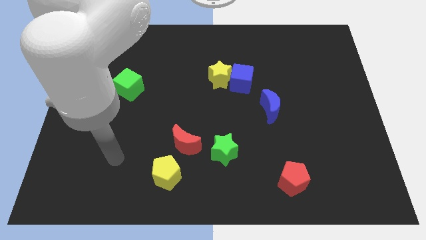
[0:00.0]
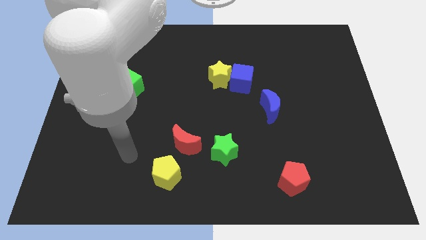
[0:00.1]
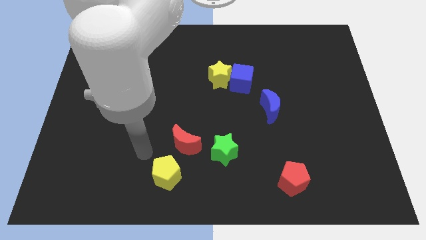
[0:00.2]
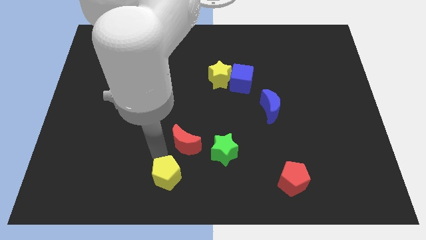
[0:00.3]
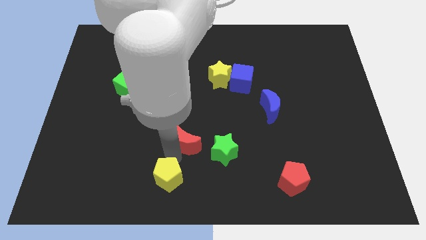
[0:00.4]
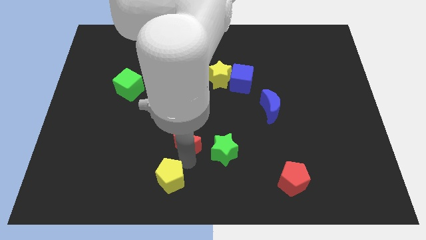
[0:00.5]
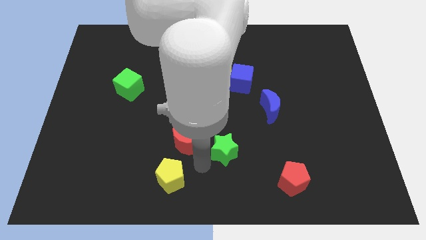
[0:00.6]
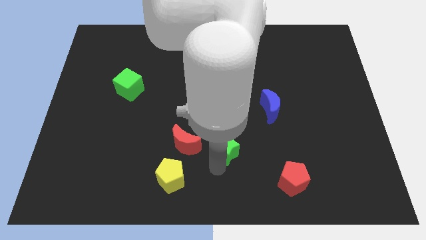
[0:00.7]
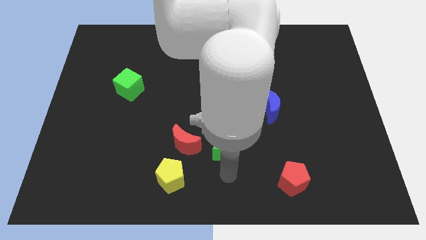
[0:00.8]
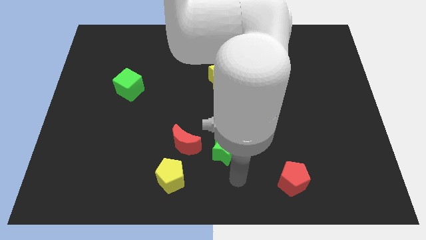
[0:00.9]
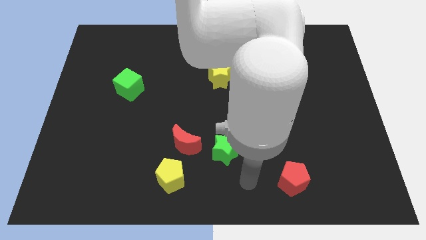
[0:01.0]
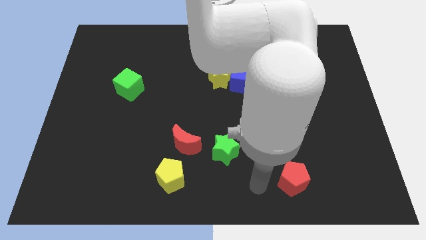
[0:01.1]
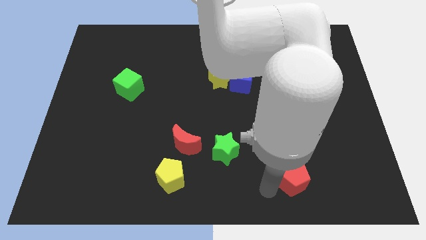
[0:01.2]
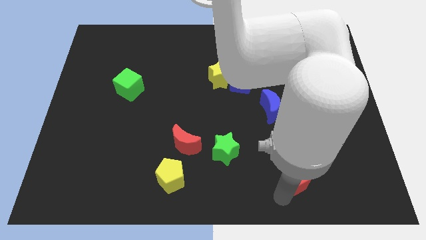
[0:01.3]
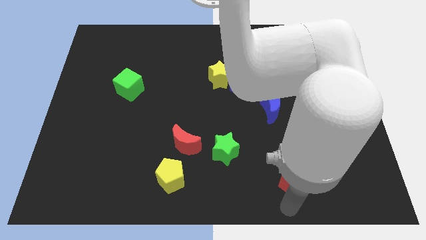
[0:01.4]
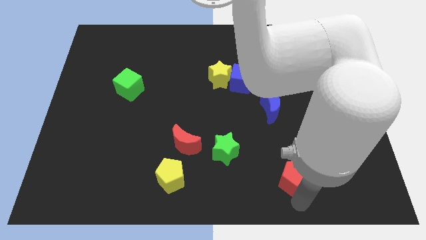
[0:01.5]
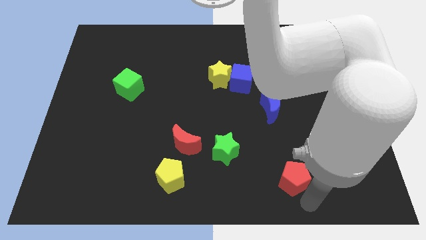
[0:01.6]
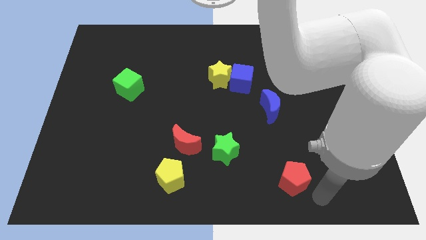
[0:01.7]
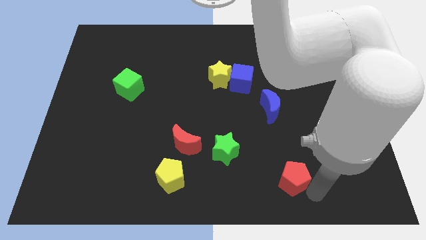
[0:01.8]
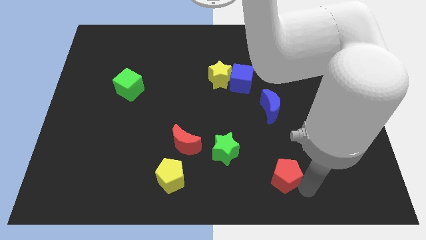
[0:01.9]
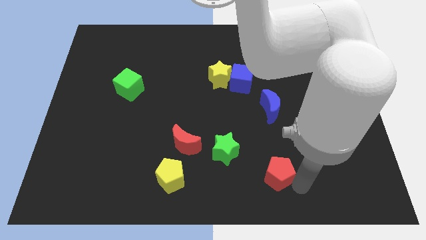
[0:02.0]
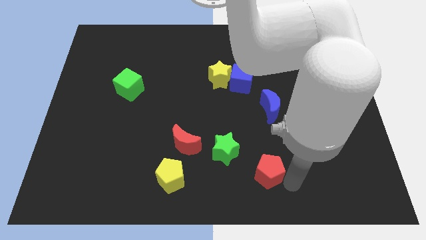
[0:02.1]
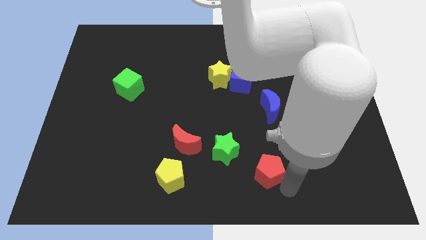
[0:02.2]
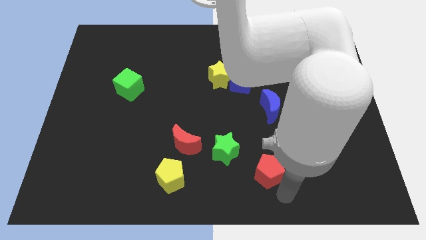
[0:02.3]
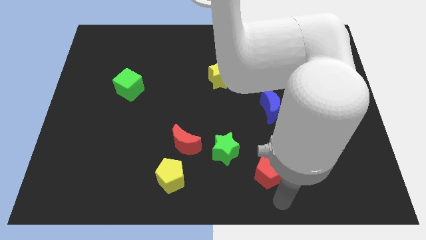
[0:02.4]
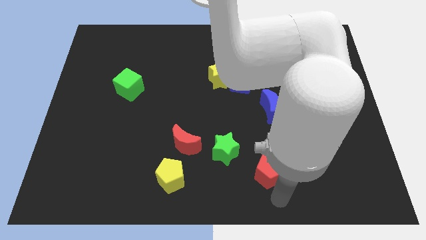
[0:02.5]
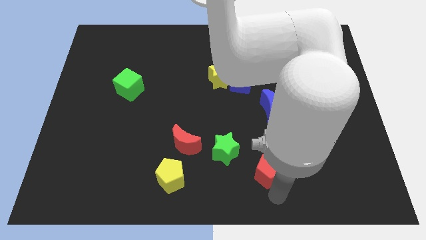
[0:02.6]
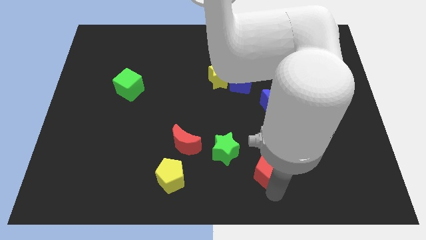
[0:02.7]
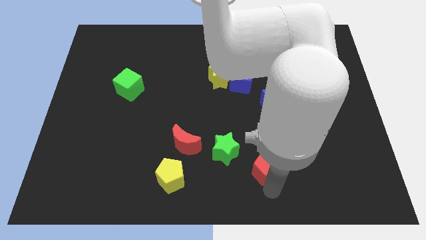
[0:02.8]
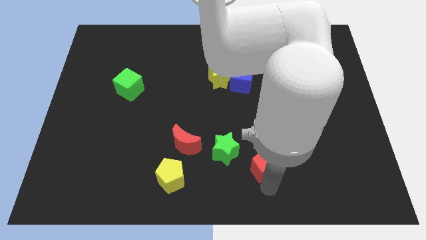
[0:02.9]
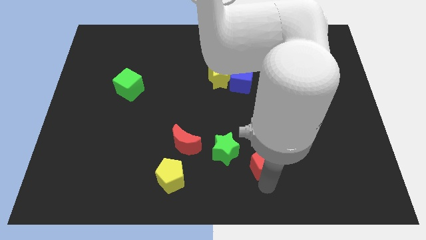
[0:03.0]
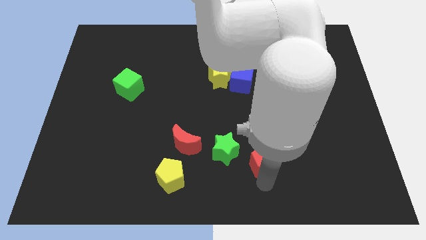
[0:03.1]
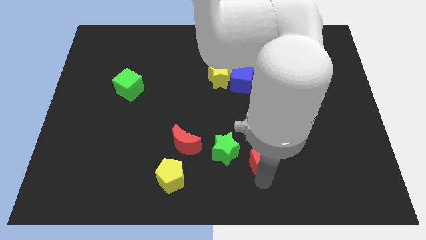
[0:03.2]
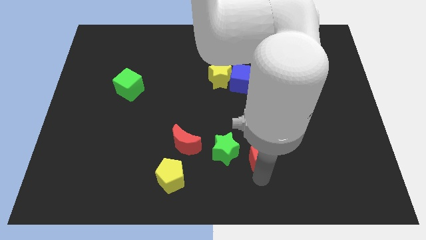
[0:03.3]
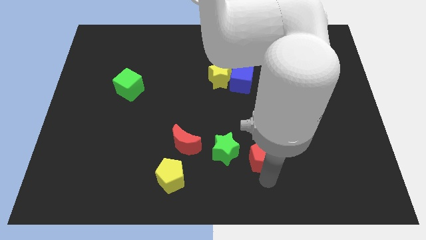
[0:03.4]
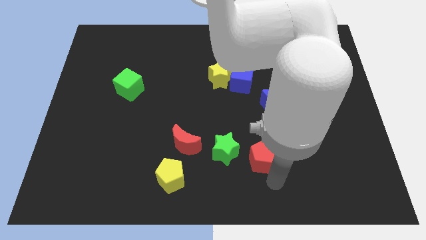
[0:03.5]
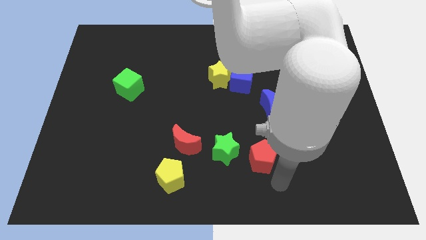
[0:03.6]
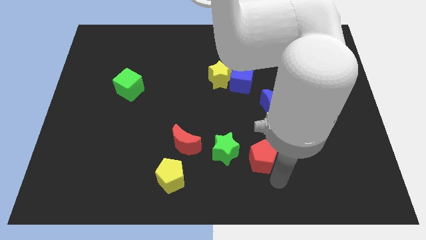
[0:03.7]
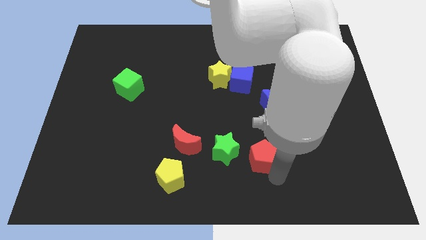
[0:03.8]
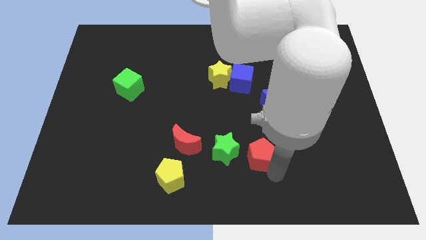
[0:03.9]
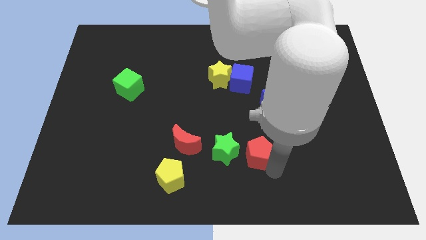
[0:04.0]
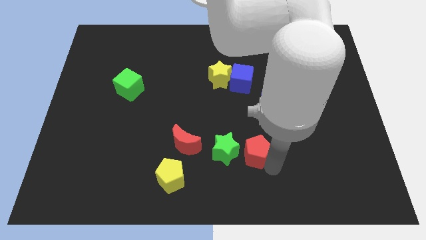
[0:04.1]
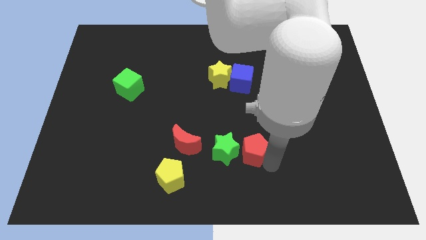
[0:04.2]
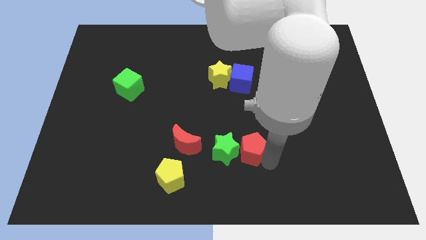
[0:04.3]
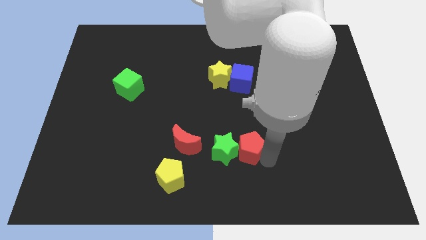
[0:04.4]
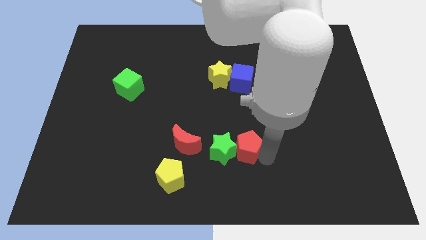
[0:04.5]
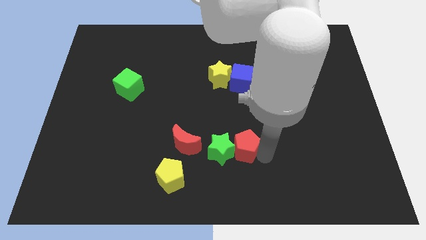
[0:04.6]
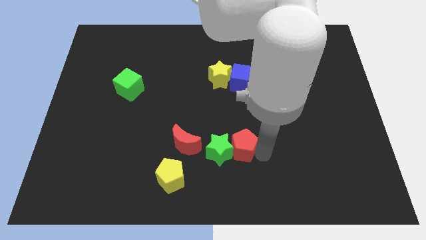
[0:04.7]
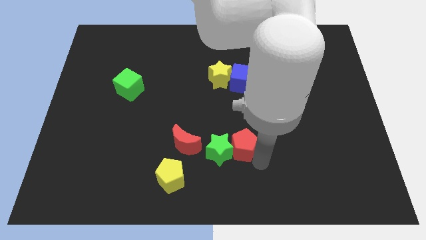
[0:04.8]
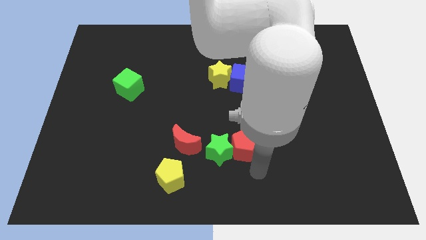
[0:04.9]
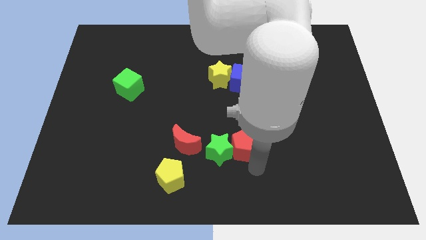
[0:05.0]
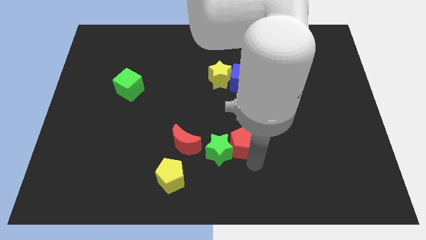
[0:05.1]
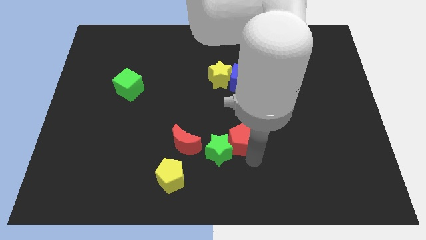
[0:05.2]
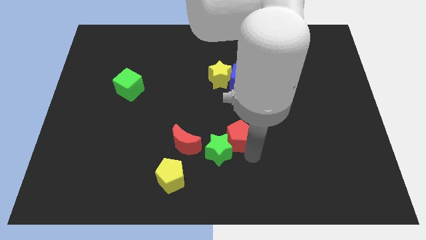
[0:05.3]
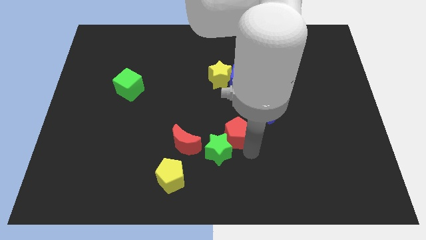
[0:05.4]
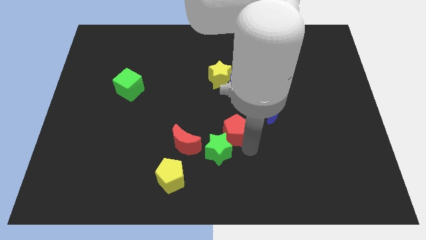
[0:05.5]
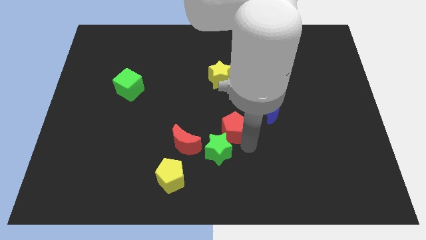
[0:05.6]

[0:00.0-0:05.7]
put the red pentagon to the bottom side of the yellow star

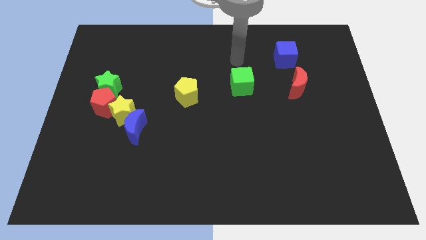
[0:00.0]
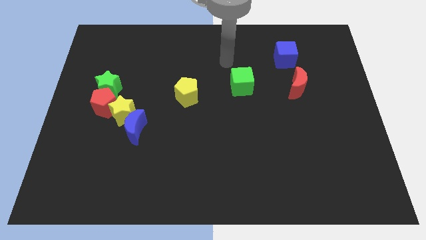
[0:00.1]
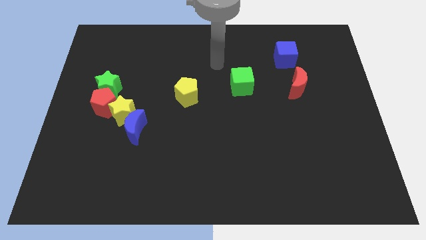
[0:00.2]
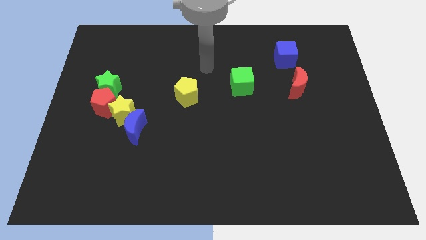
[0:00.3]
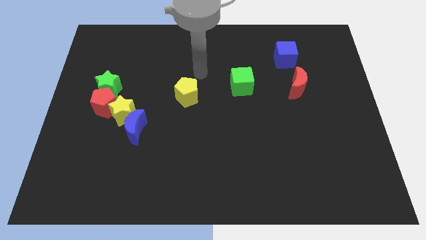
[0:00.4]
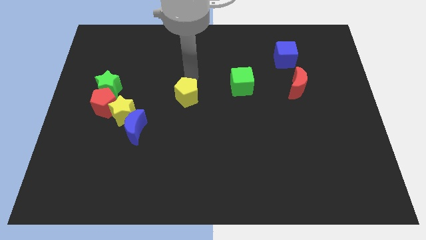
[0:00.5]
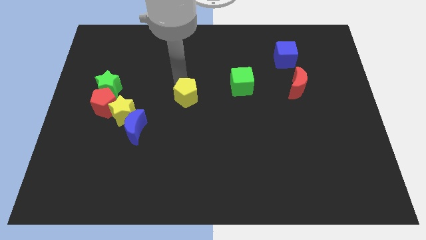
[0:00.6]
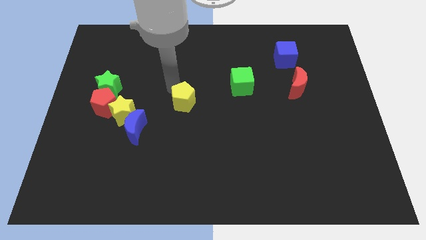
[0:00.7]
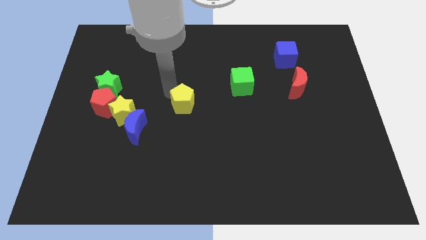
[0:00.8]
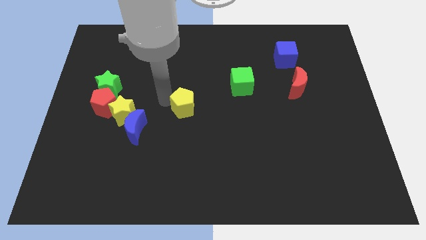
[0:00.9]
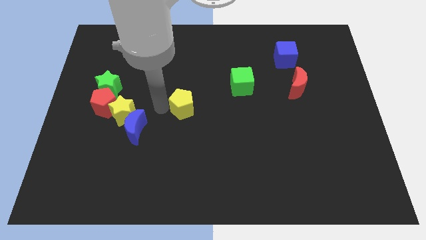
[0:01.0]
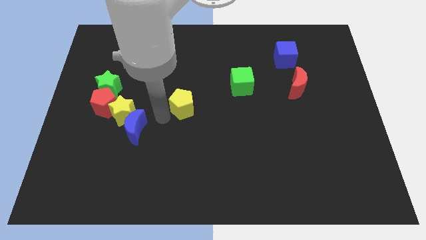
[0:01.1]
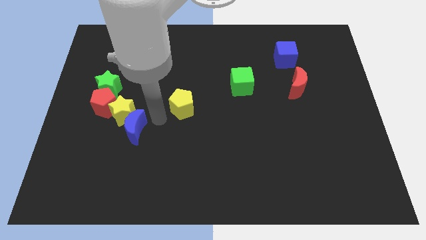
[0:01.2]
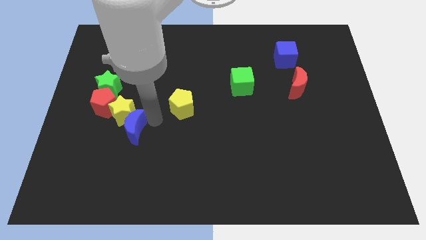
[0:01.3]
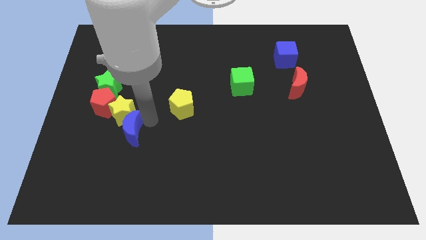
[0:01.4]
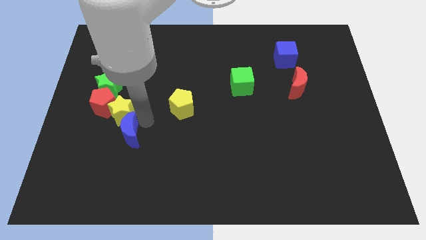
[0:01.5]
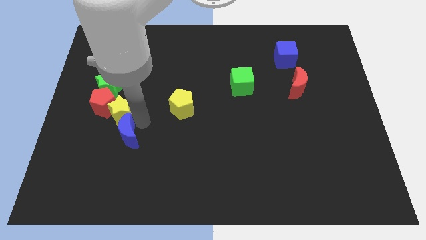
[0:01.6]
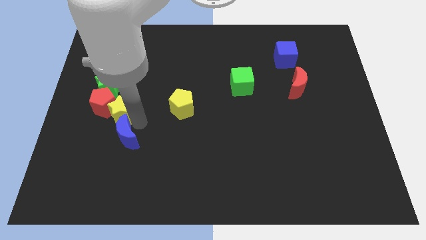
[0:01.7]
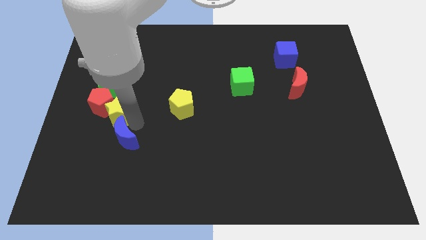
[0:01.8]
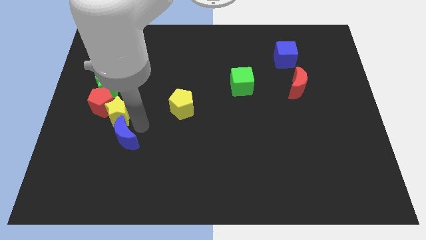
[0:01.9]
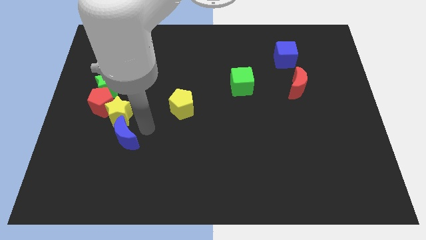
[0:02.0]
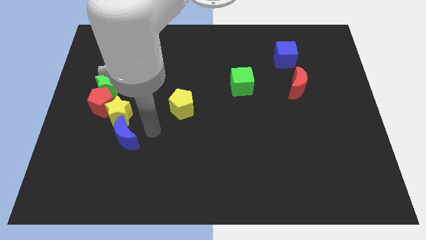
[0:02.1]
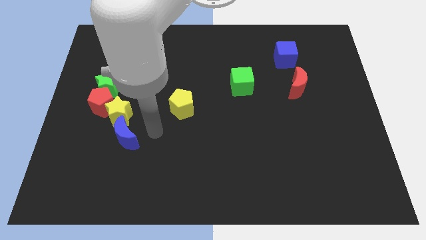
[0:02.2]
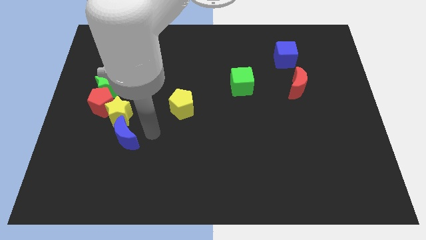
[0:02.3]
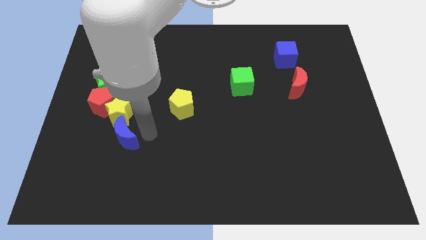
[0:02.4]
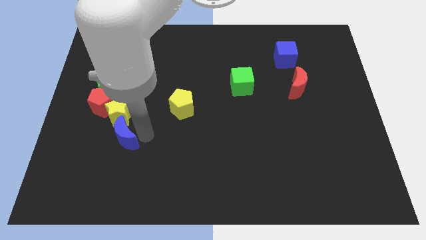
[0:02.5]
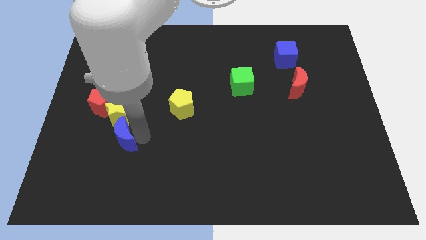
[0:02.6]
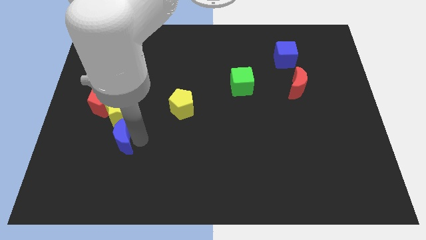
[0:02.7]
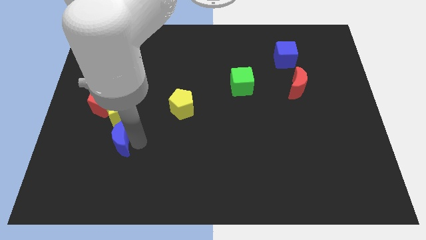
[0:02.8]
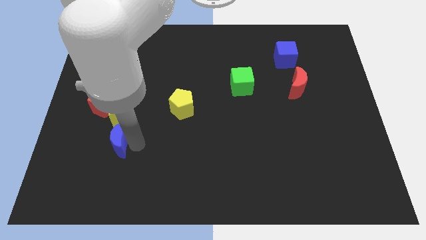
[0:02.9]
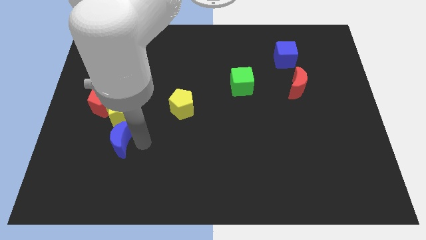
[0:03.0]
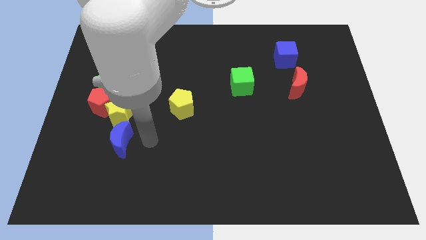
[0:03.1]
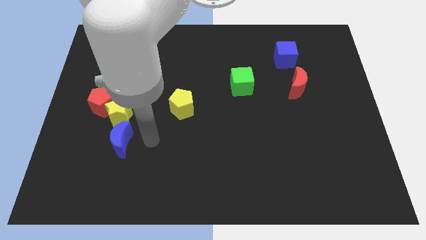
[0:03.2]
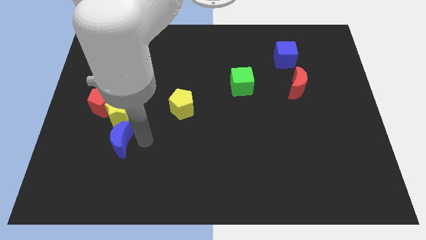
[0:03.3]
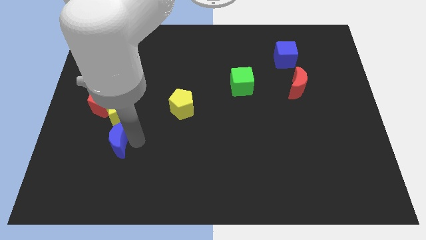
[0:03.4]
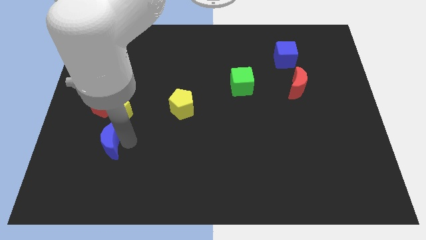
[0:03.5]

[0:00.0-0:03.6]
slide the blue moon below the red pentagon
